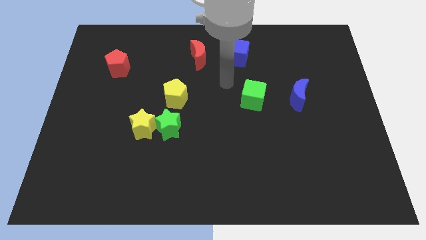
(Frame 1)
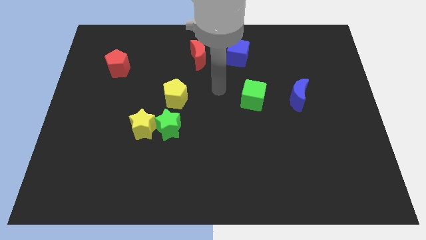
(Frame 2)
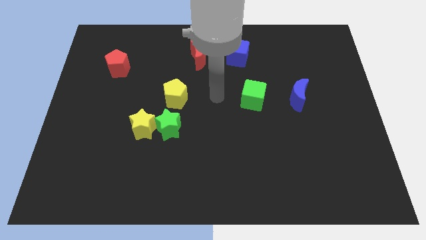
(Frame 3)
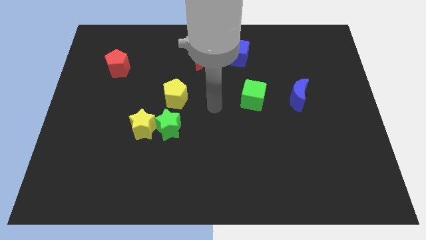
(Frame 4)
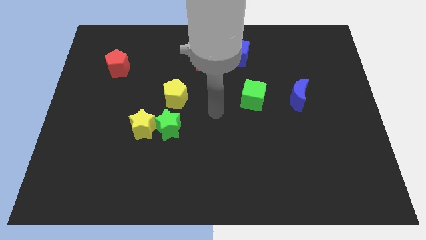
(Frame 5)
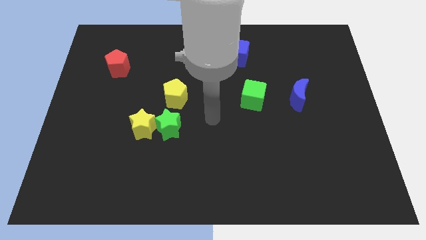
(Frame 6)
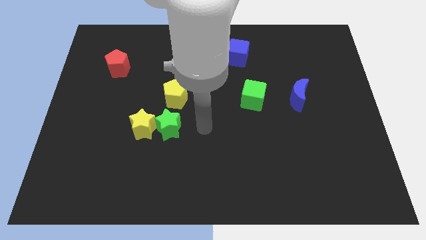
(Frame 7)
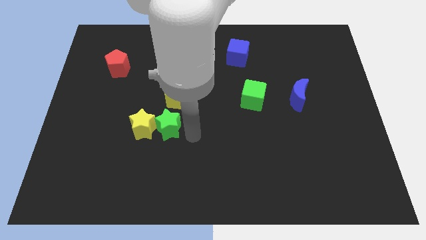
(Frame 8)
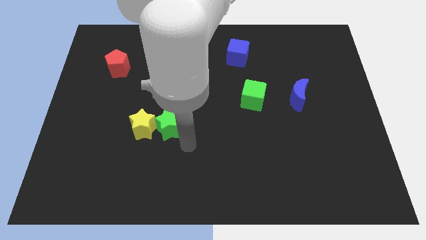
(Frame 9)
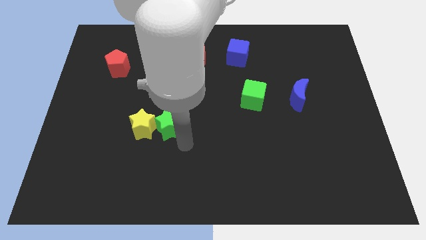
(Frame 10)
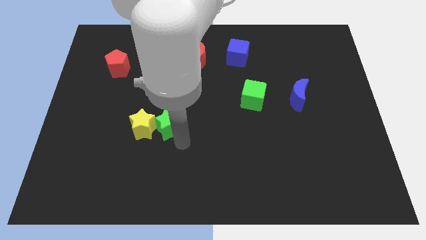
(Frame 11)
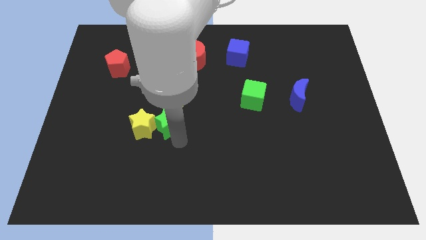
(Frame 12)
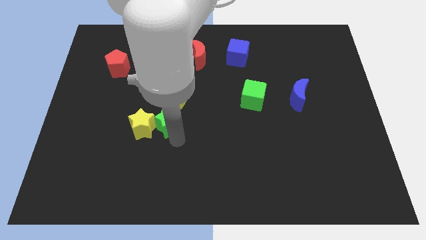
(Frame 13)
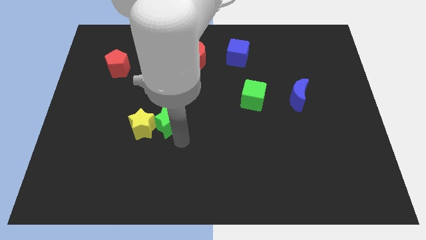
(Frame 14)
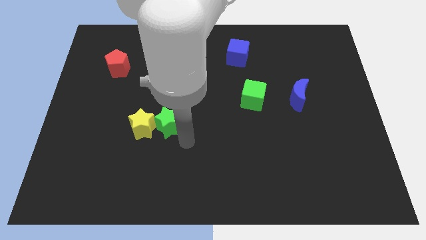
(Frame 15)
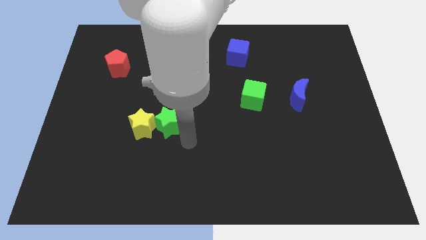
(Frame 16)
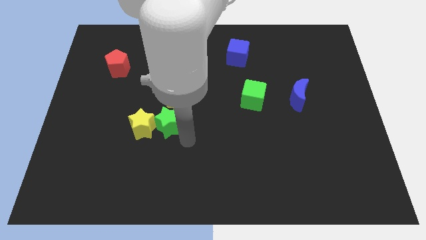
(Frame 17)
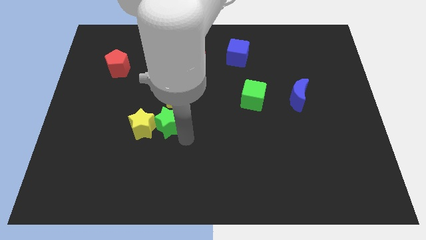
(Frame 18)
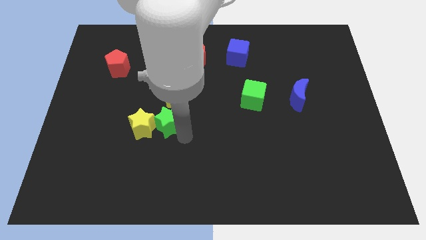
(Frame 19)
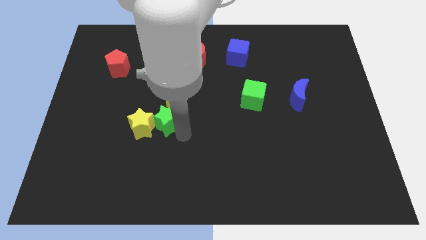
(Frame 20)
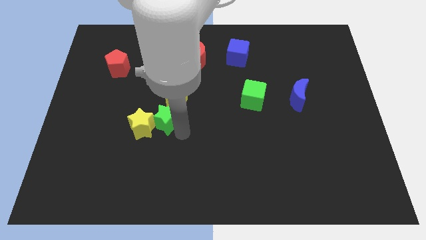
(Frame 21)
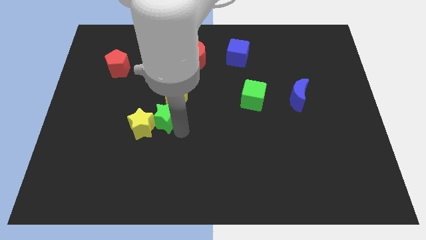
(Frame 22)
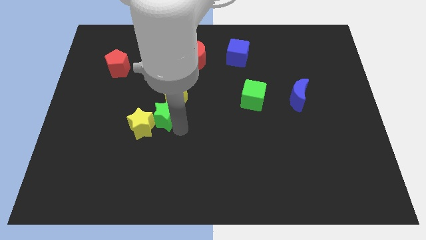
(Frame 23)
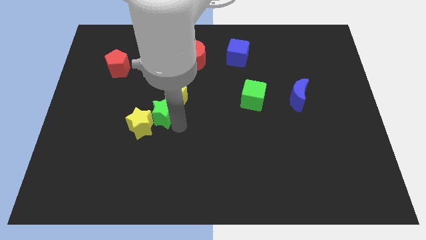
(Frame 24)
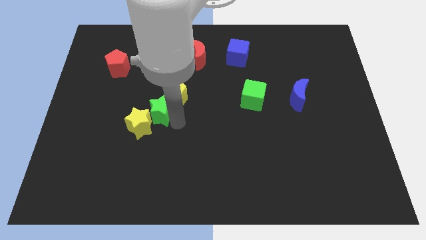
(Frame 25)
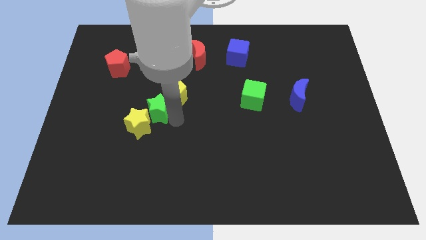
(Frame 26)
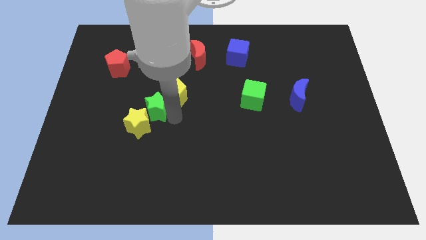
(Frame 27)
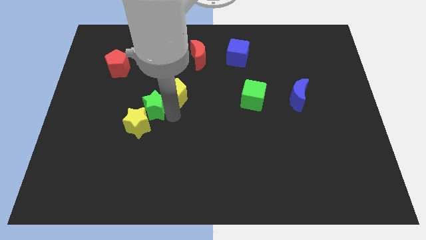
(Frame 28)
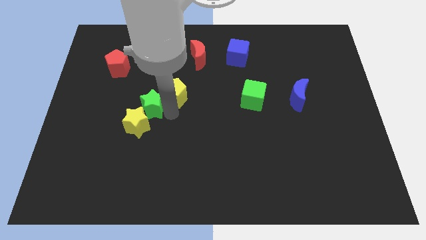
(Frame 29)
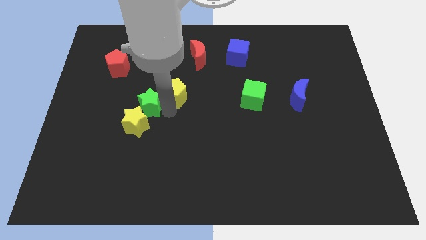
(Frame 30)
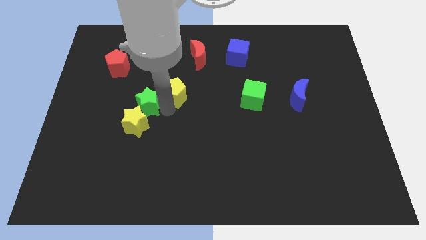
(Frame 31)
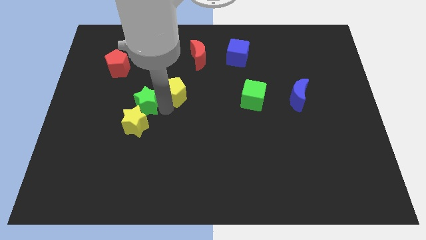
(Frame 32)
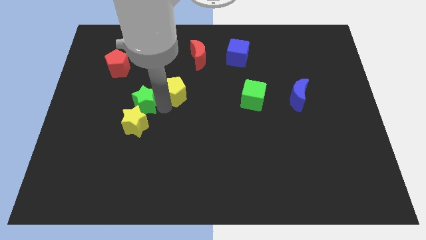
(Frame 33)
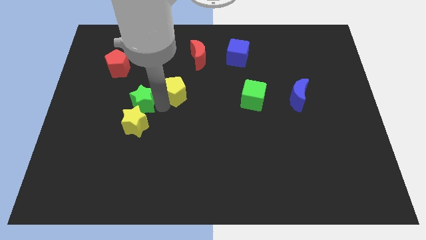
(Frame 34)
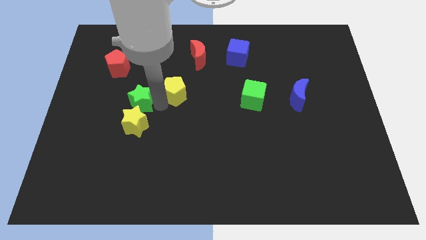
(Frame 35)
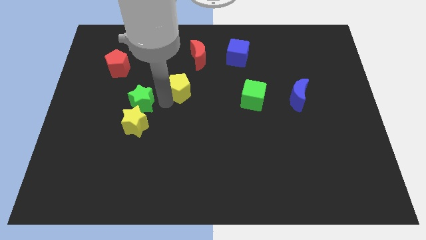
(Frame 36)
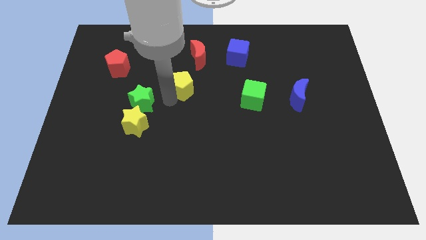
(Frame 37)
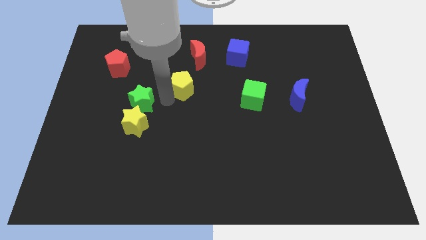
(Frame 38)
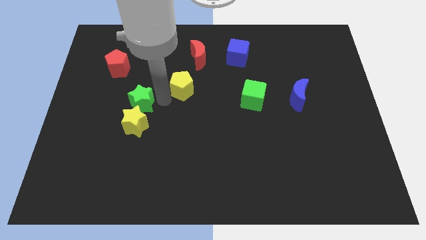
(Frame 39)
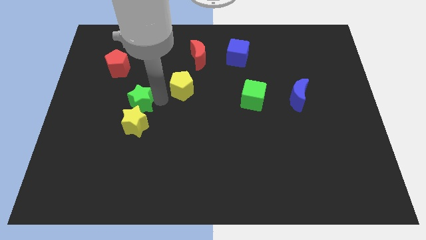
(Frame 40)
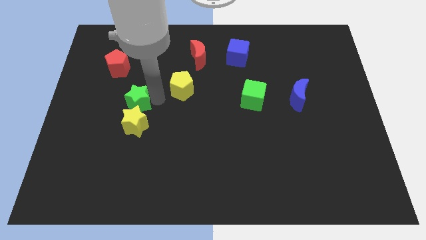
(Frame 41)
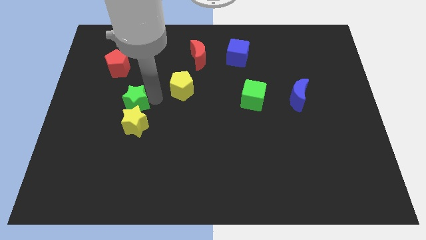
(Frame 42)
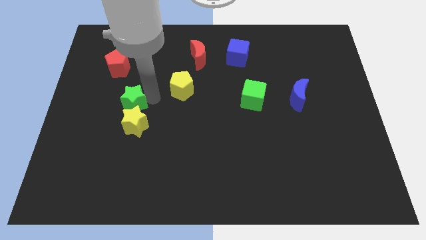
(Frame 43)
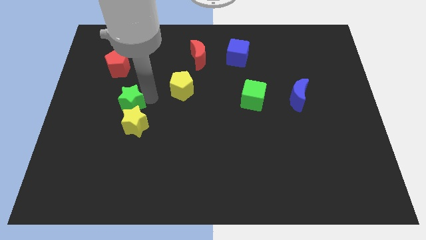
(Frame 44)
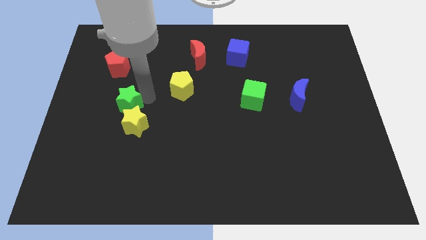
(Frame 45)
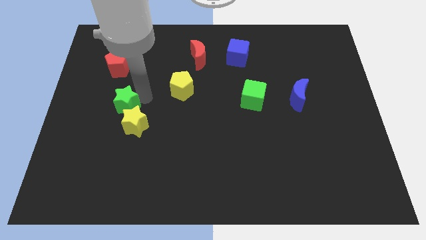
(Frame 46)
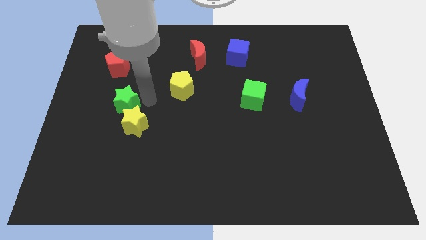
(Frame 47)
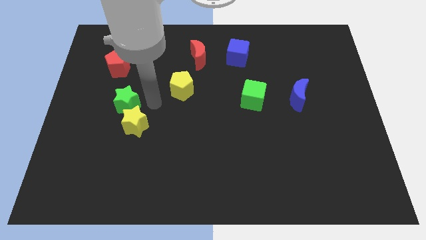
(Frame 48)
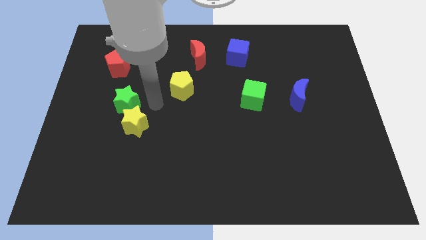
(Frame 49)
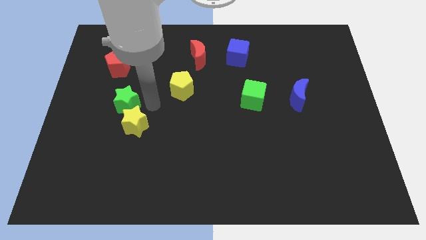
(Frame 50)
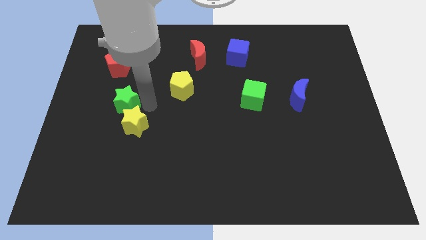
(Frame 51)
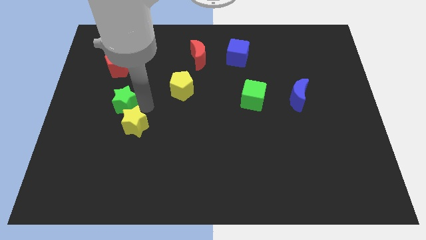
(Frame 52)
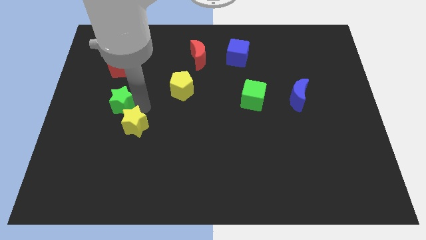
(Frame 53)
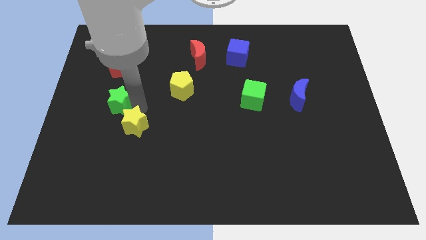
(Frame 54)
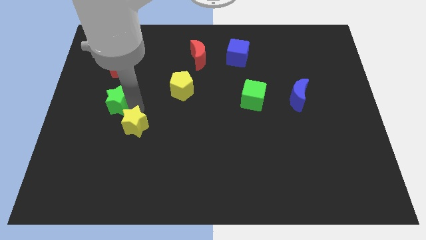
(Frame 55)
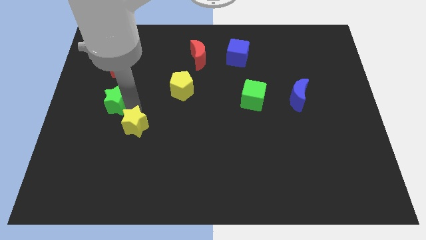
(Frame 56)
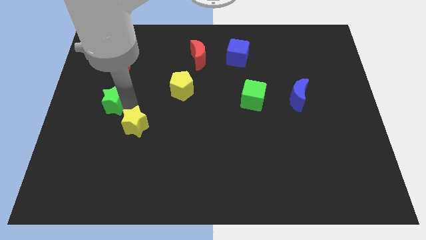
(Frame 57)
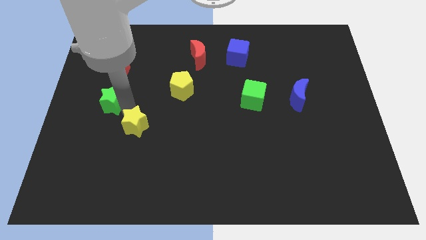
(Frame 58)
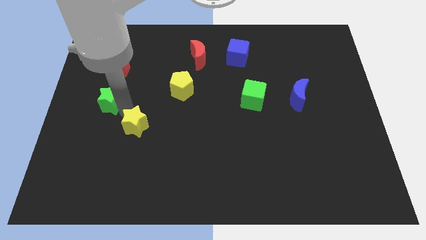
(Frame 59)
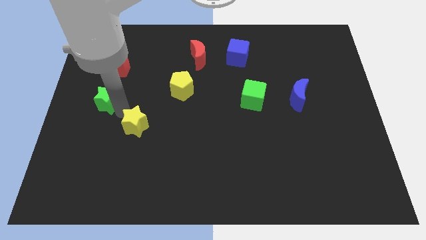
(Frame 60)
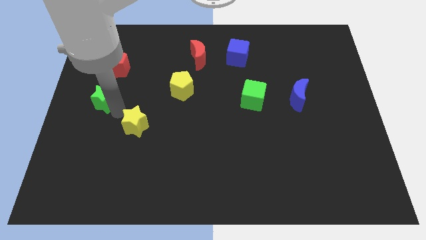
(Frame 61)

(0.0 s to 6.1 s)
move the green star to the left side of the board

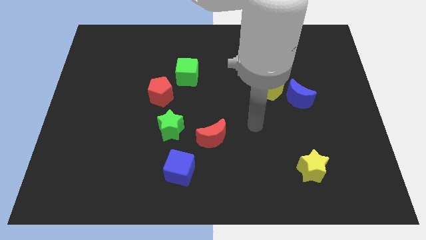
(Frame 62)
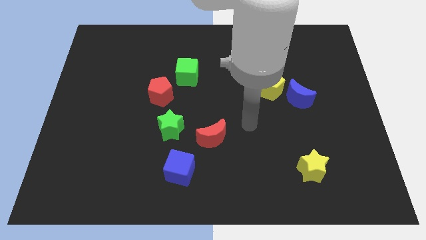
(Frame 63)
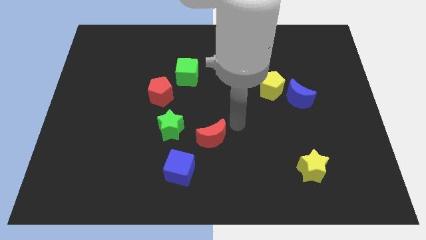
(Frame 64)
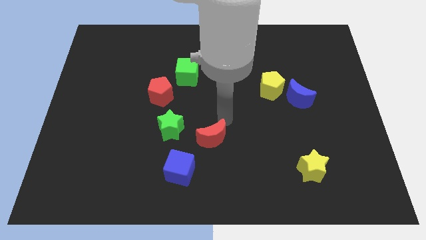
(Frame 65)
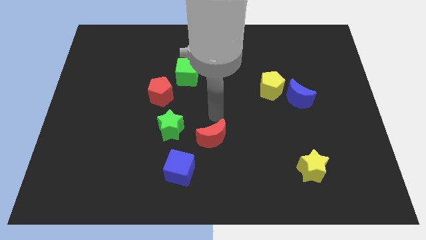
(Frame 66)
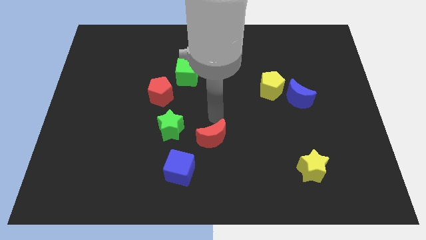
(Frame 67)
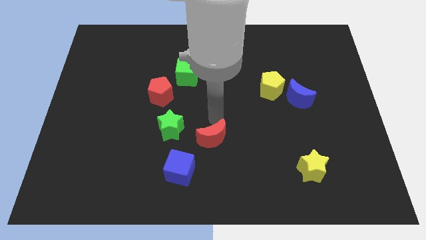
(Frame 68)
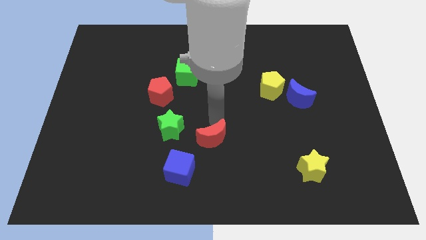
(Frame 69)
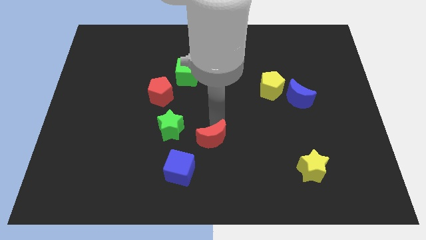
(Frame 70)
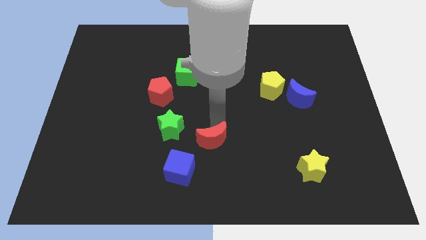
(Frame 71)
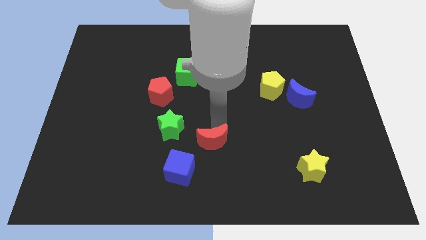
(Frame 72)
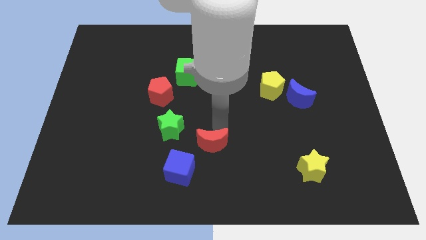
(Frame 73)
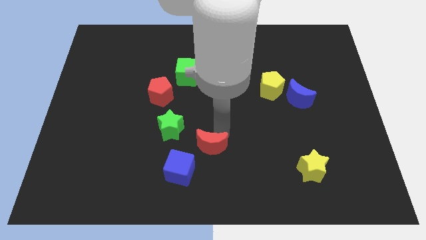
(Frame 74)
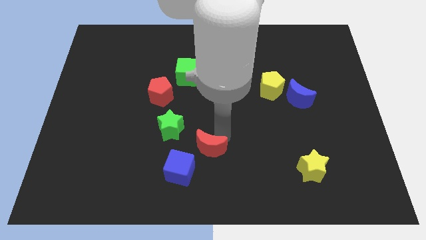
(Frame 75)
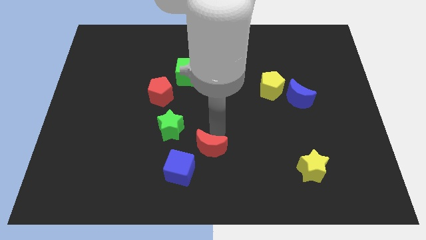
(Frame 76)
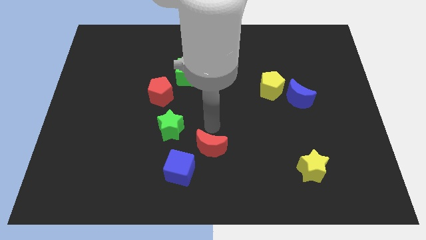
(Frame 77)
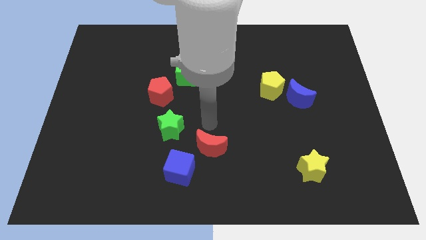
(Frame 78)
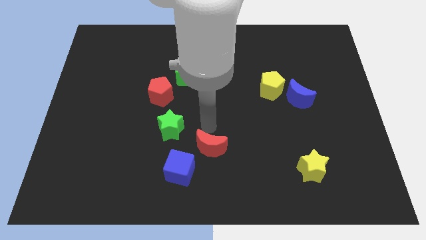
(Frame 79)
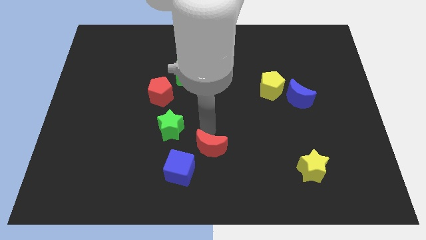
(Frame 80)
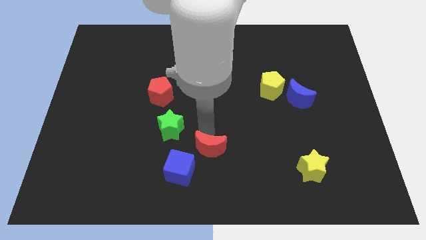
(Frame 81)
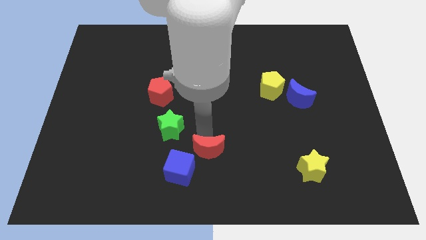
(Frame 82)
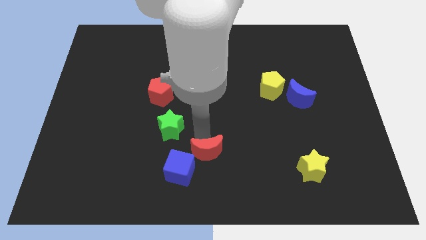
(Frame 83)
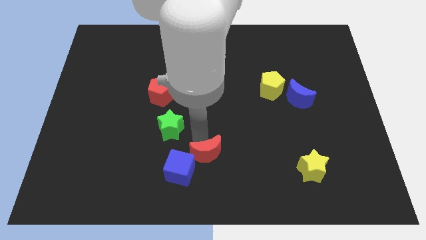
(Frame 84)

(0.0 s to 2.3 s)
slide the red moon to the bottom
